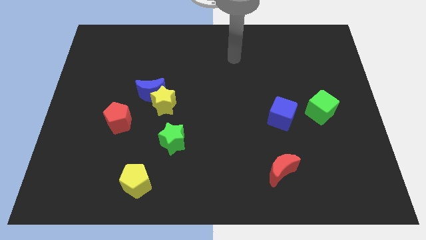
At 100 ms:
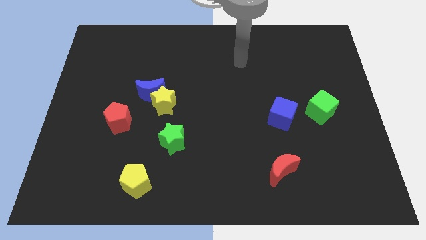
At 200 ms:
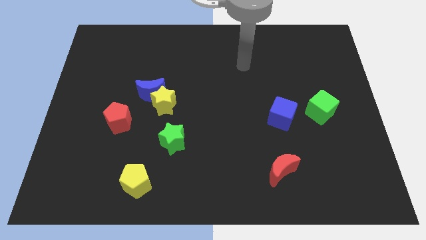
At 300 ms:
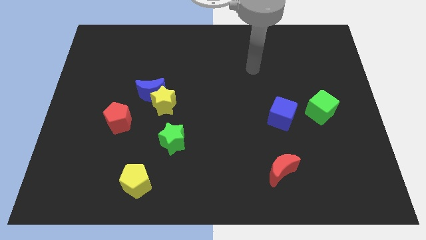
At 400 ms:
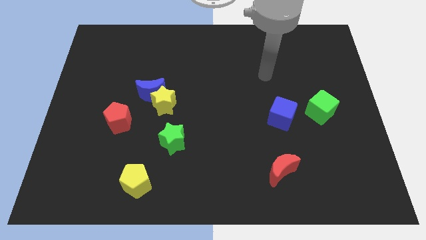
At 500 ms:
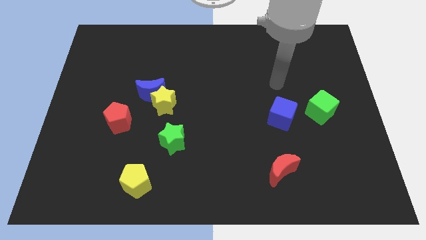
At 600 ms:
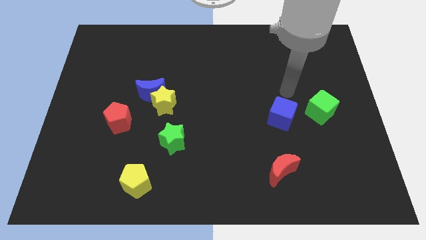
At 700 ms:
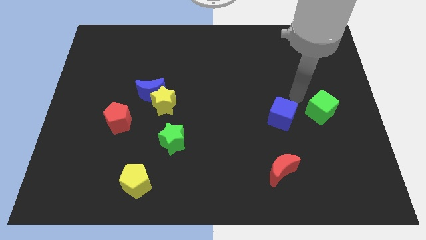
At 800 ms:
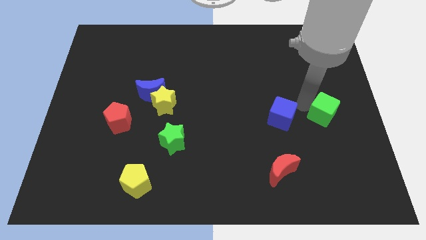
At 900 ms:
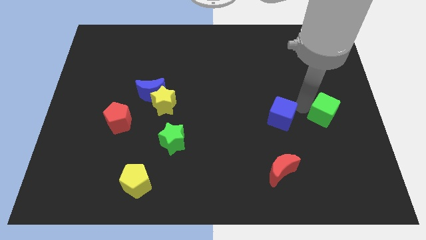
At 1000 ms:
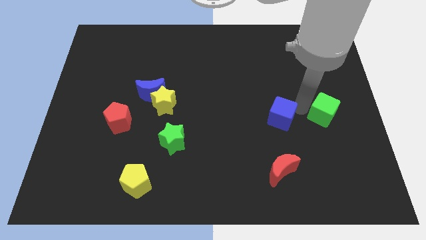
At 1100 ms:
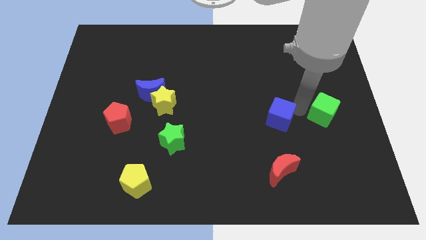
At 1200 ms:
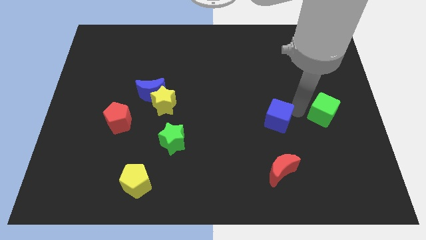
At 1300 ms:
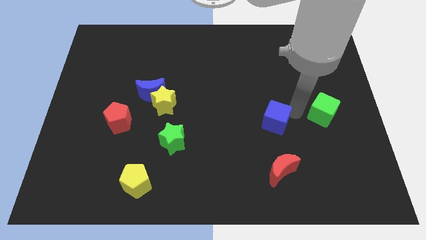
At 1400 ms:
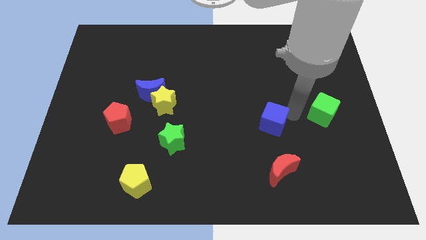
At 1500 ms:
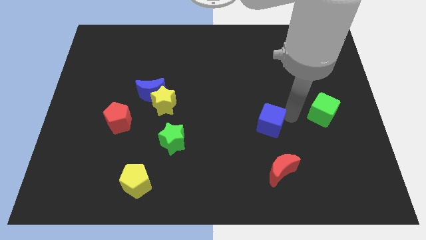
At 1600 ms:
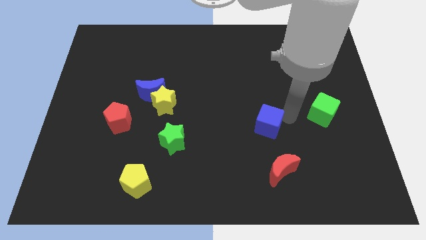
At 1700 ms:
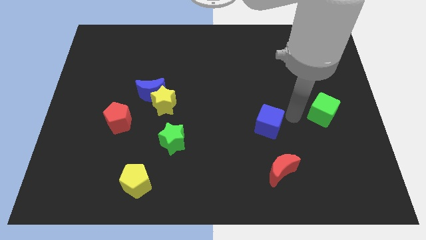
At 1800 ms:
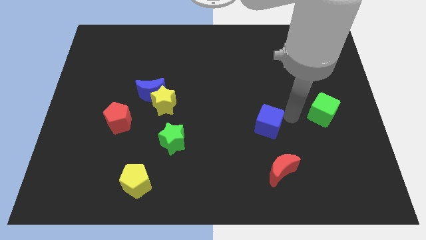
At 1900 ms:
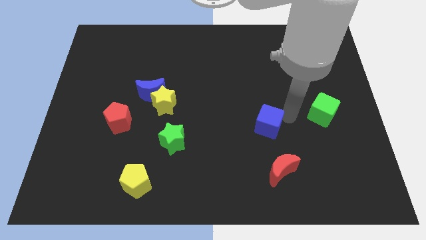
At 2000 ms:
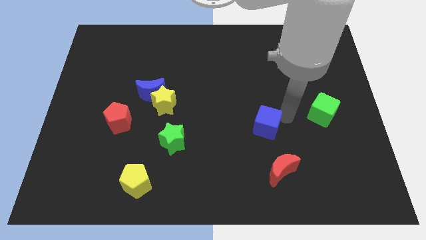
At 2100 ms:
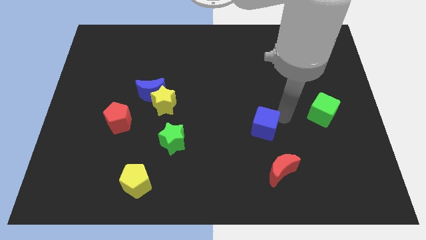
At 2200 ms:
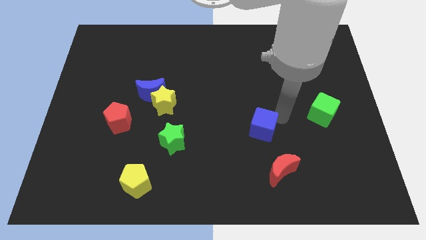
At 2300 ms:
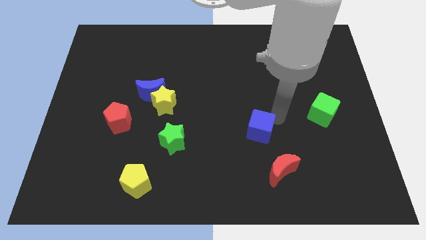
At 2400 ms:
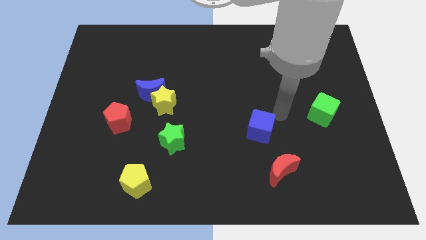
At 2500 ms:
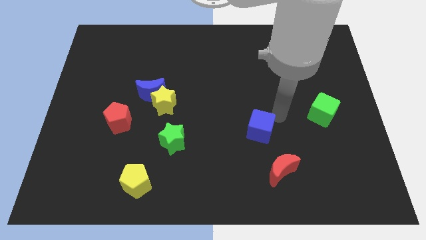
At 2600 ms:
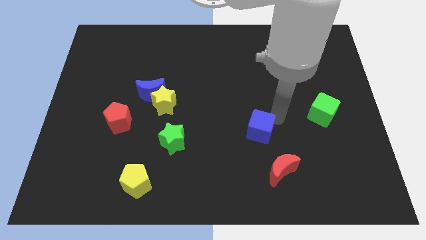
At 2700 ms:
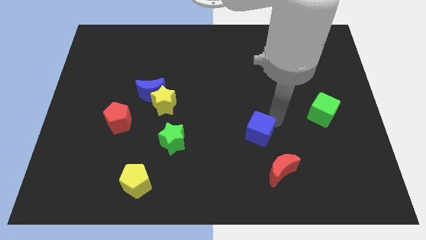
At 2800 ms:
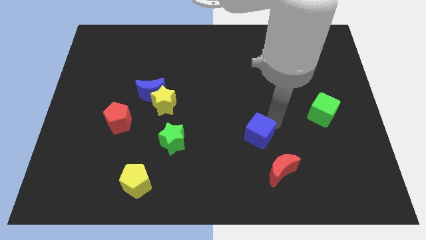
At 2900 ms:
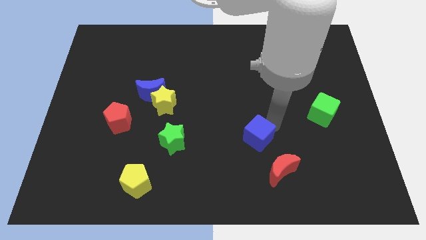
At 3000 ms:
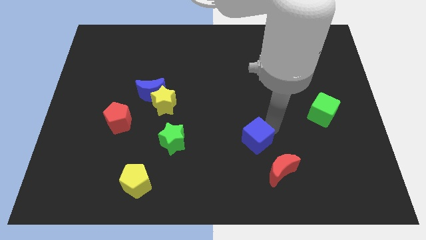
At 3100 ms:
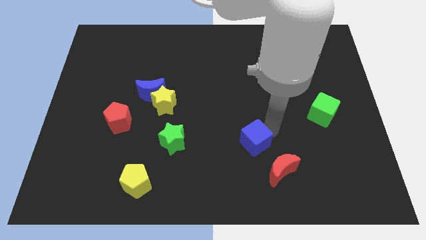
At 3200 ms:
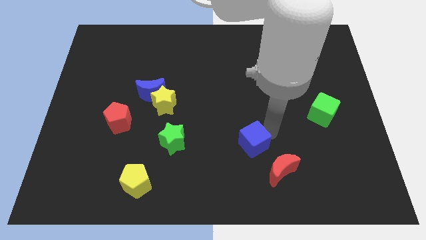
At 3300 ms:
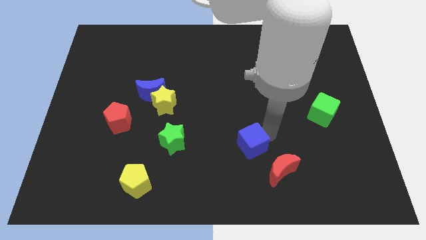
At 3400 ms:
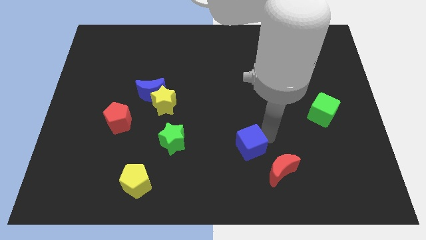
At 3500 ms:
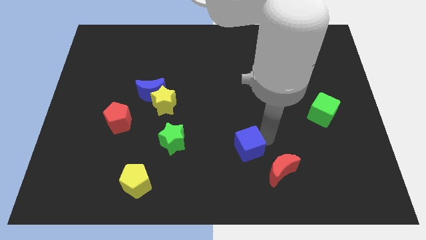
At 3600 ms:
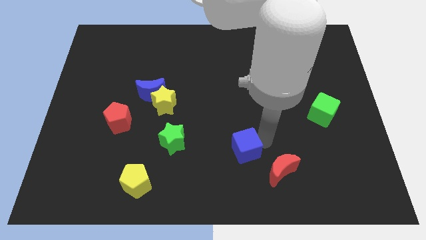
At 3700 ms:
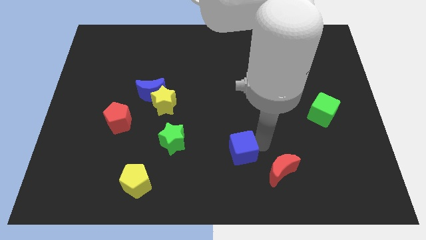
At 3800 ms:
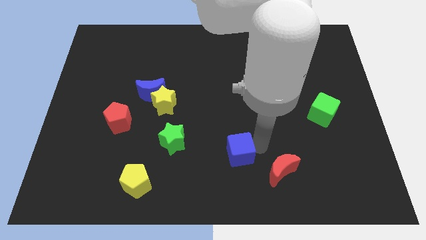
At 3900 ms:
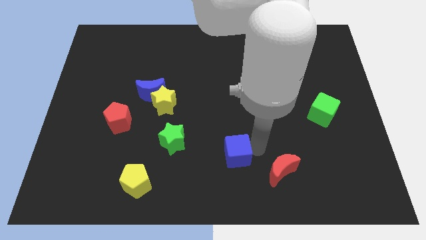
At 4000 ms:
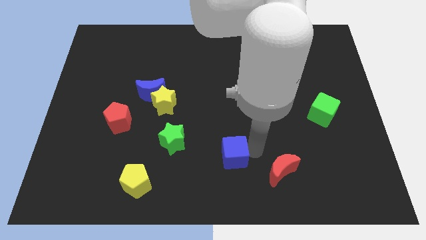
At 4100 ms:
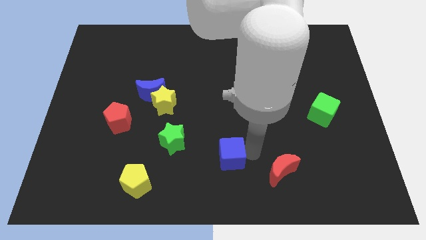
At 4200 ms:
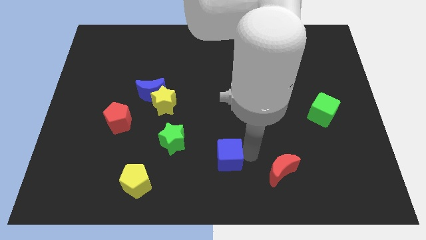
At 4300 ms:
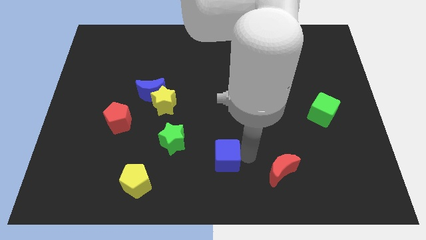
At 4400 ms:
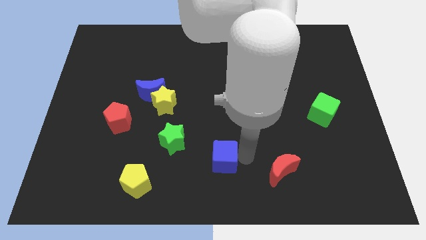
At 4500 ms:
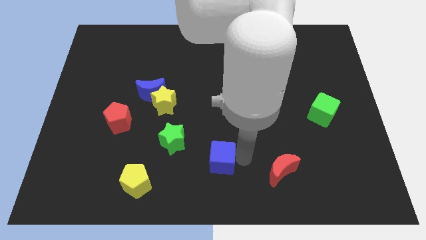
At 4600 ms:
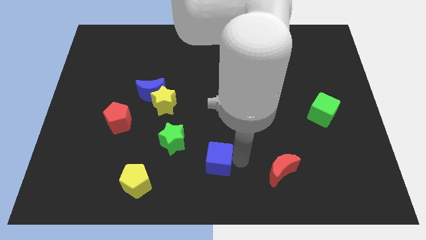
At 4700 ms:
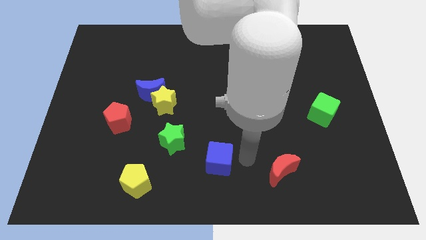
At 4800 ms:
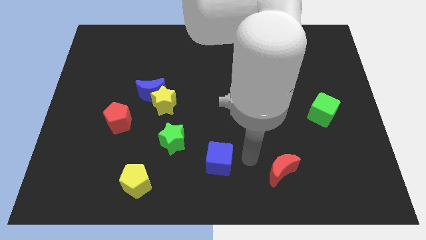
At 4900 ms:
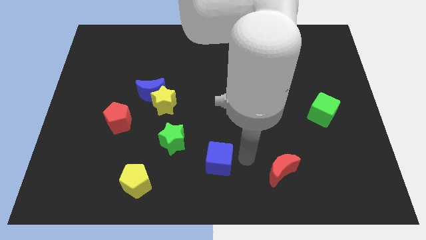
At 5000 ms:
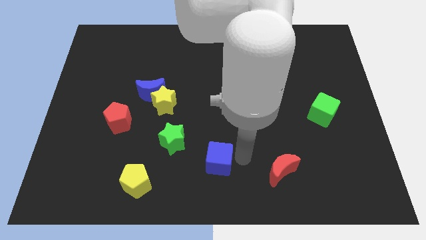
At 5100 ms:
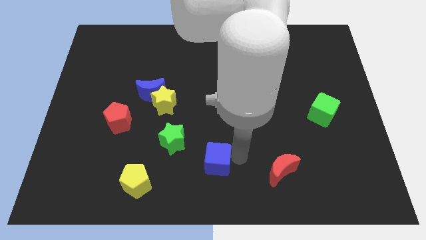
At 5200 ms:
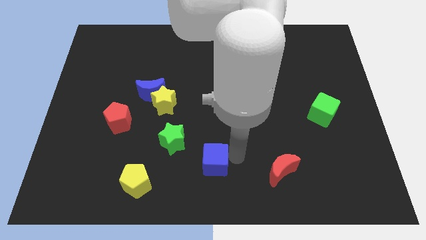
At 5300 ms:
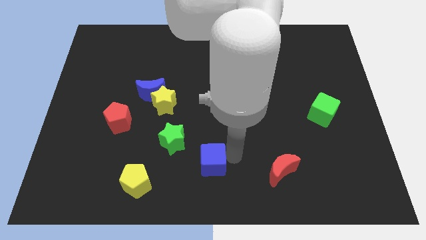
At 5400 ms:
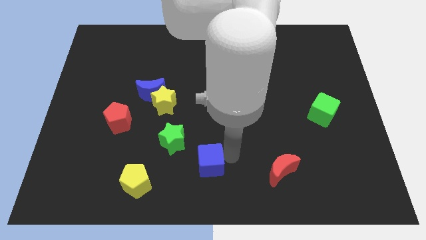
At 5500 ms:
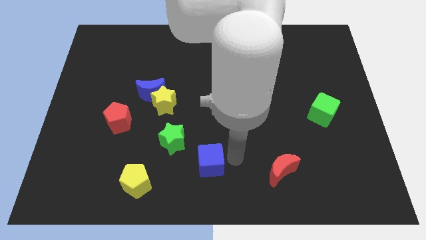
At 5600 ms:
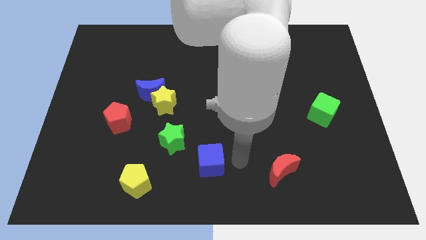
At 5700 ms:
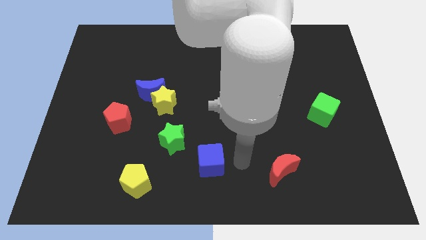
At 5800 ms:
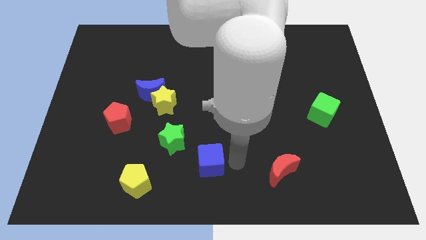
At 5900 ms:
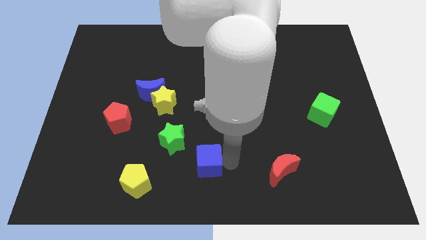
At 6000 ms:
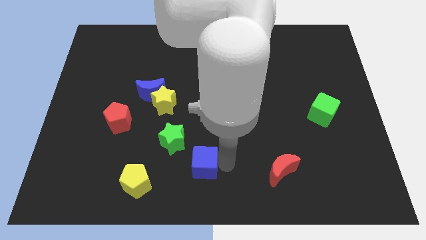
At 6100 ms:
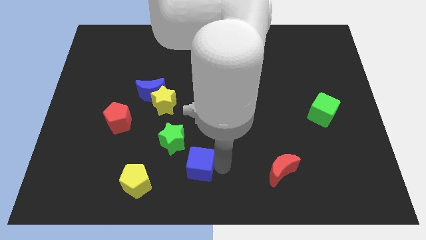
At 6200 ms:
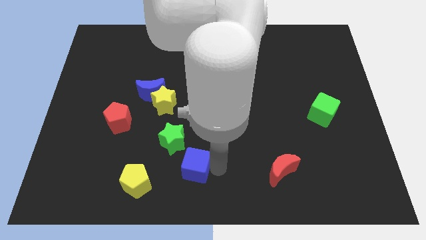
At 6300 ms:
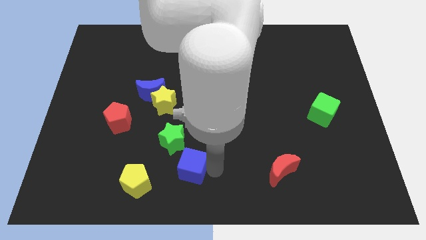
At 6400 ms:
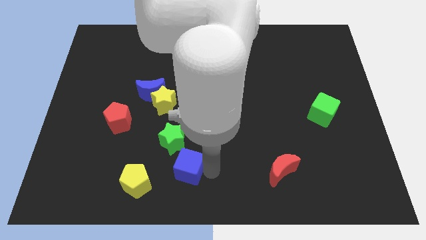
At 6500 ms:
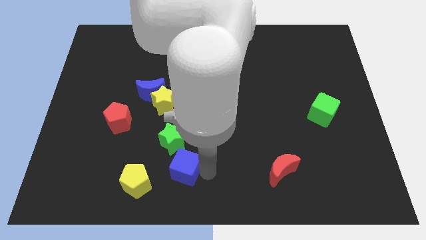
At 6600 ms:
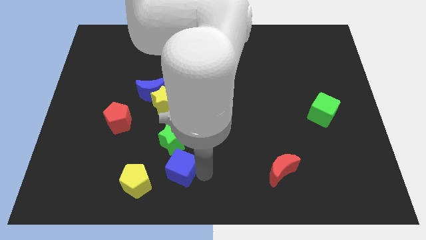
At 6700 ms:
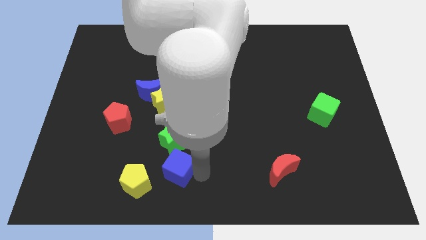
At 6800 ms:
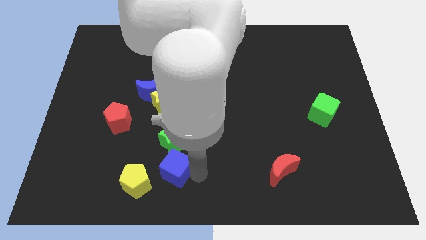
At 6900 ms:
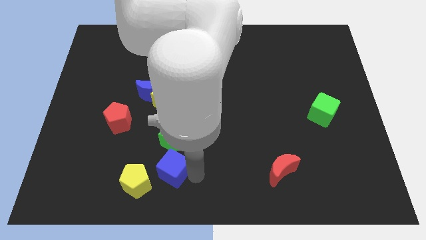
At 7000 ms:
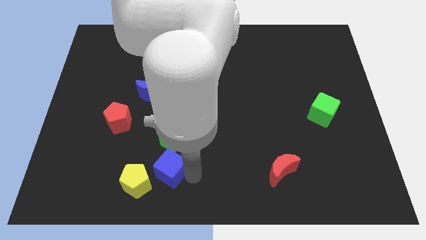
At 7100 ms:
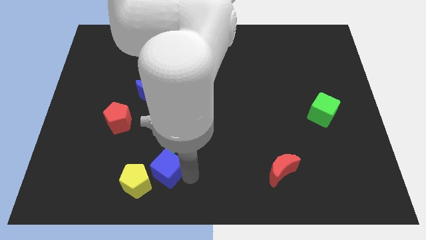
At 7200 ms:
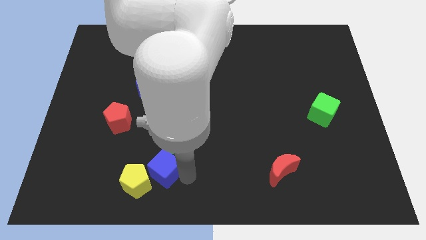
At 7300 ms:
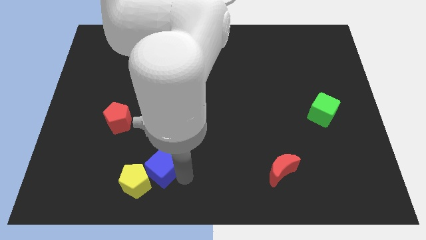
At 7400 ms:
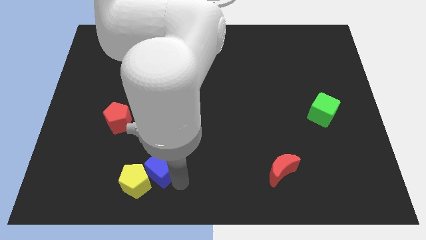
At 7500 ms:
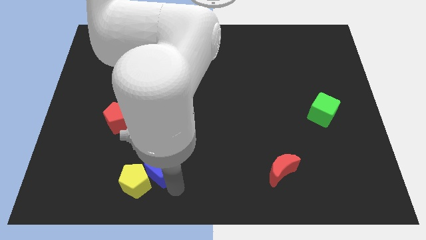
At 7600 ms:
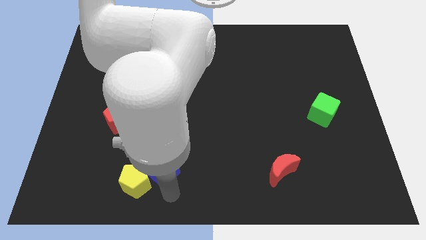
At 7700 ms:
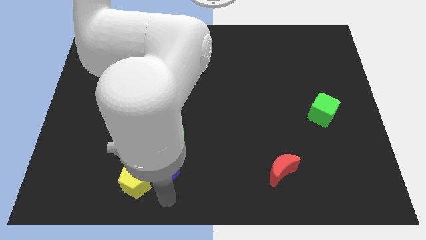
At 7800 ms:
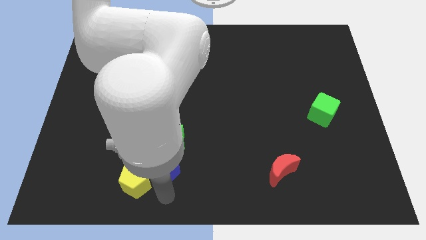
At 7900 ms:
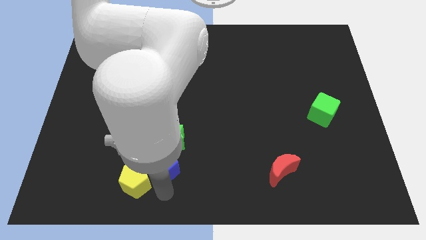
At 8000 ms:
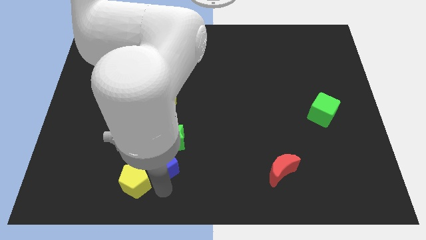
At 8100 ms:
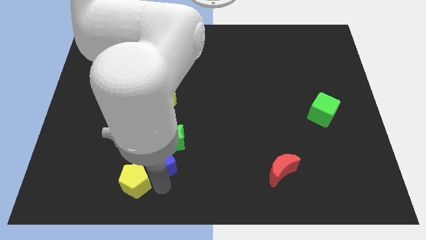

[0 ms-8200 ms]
move the blue cube below the yellow star
